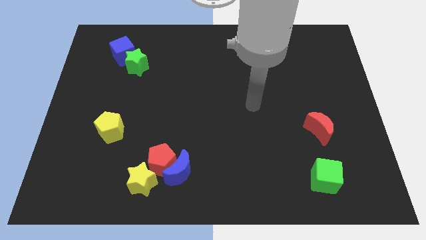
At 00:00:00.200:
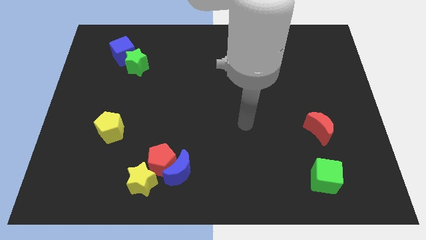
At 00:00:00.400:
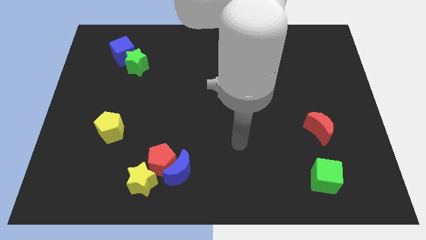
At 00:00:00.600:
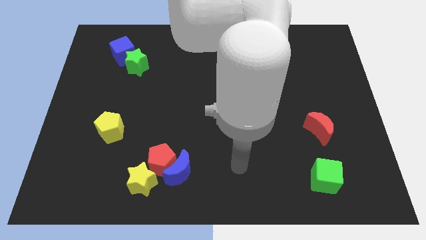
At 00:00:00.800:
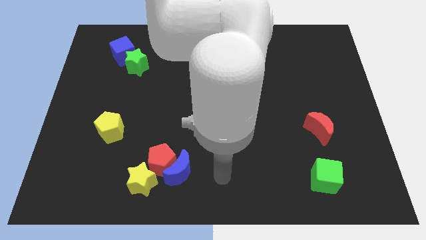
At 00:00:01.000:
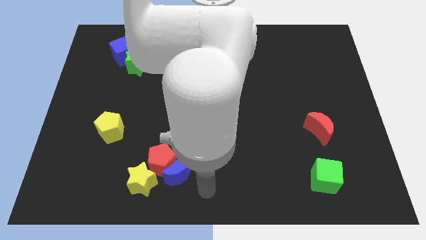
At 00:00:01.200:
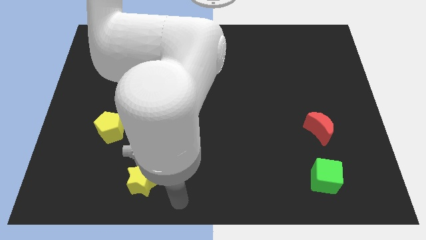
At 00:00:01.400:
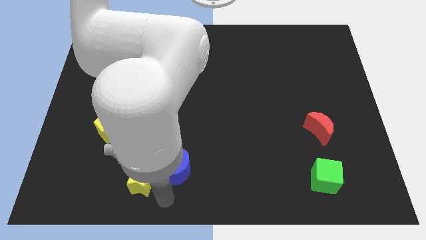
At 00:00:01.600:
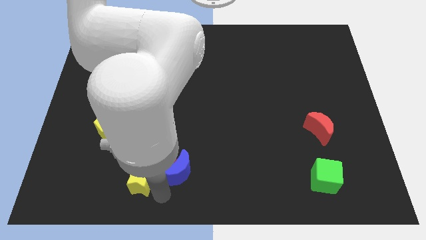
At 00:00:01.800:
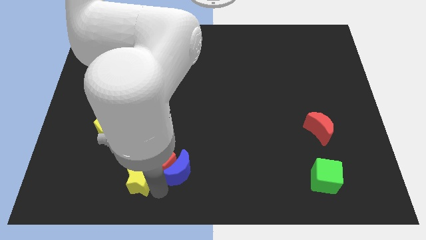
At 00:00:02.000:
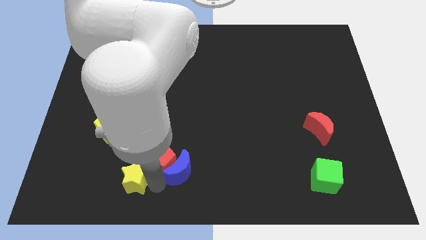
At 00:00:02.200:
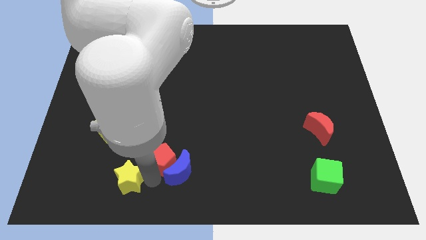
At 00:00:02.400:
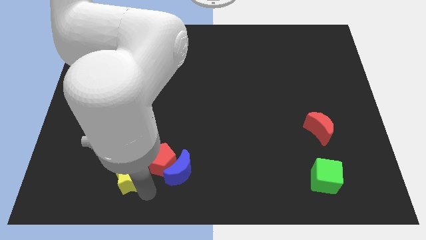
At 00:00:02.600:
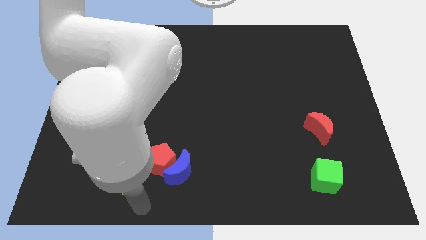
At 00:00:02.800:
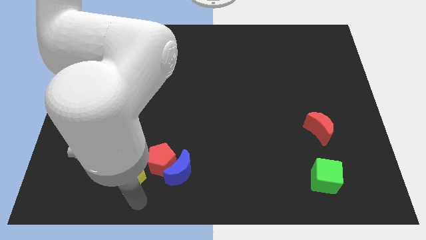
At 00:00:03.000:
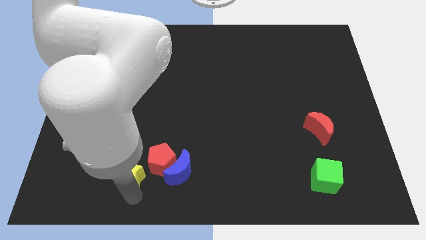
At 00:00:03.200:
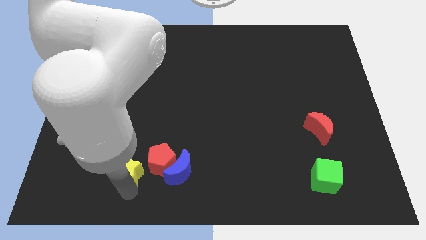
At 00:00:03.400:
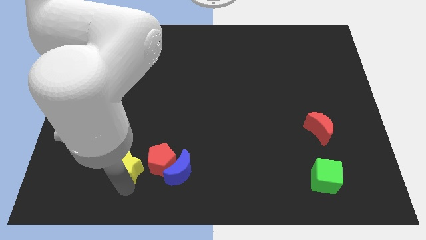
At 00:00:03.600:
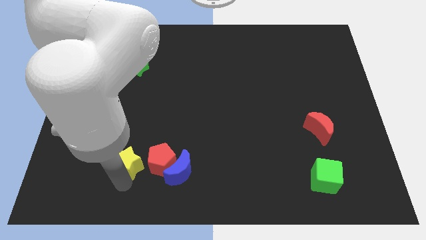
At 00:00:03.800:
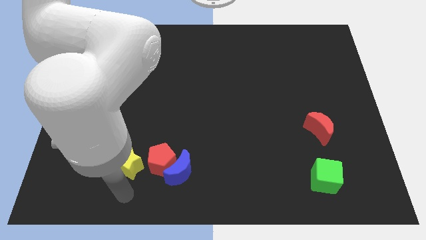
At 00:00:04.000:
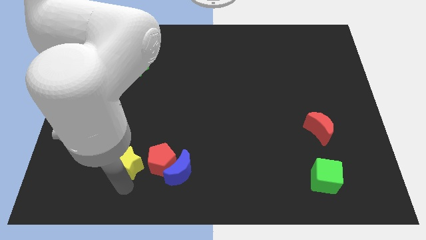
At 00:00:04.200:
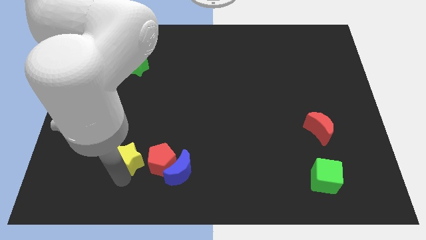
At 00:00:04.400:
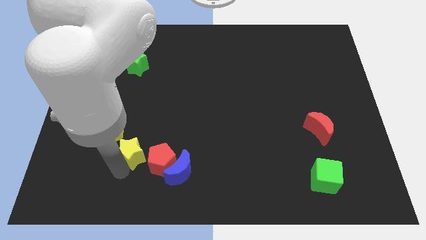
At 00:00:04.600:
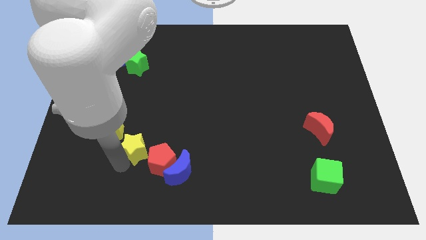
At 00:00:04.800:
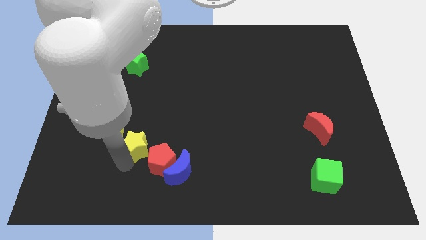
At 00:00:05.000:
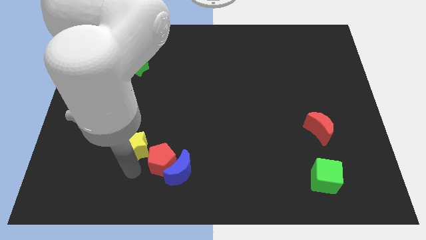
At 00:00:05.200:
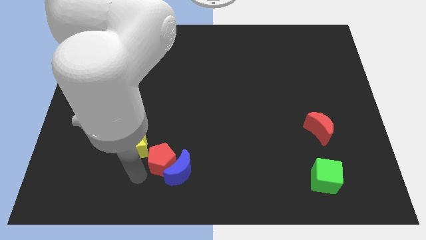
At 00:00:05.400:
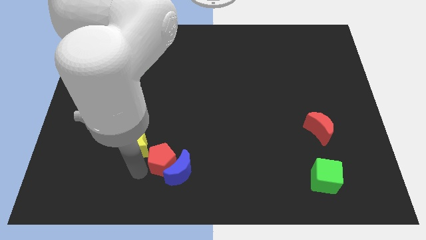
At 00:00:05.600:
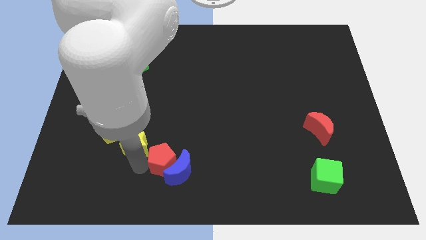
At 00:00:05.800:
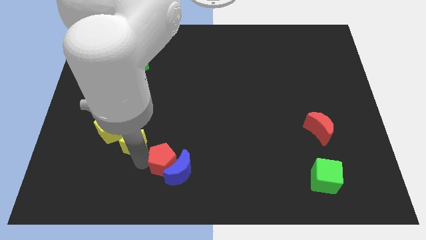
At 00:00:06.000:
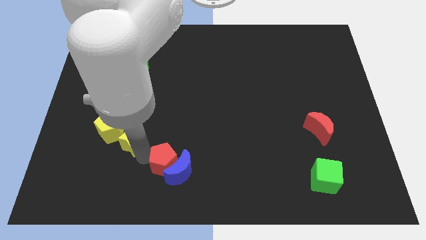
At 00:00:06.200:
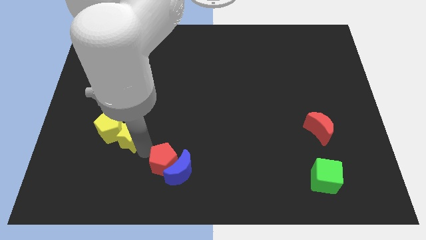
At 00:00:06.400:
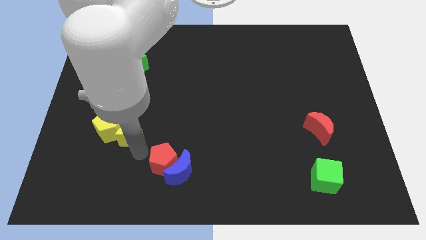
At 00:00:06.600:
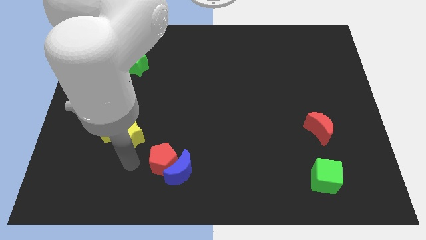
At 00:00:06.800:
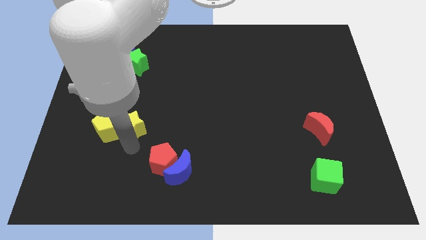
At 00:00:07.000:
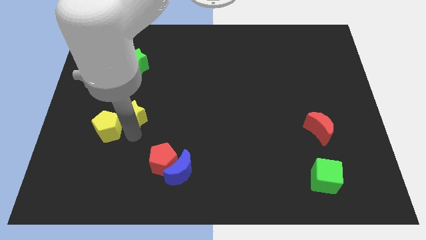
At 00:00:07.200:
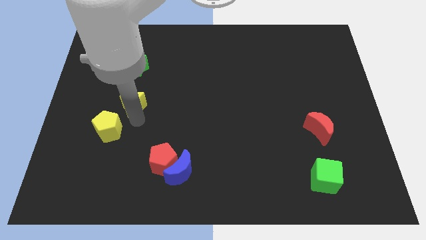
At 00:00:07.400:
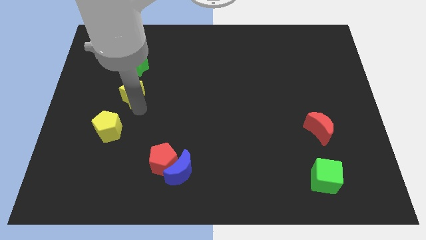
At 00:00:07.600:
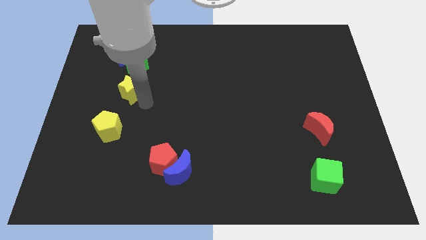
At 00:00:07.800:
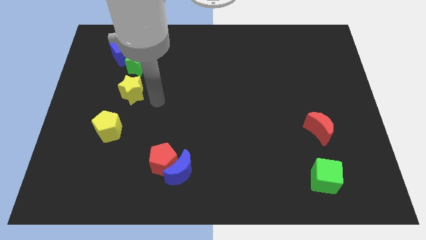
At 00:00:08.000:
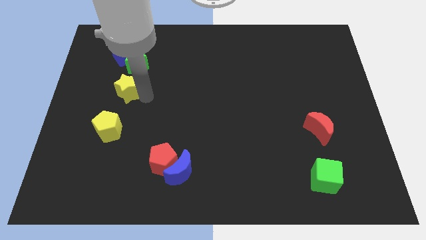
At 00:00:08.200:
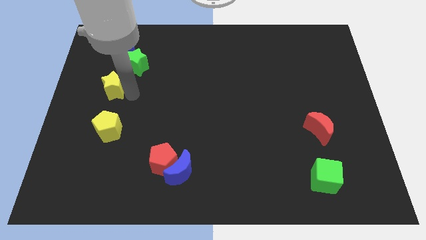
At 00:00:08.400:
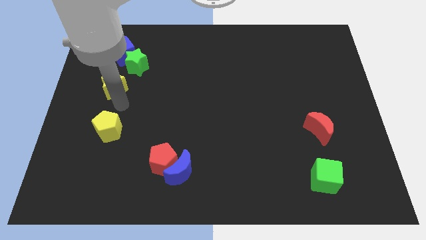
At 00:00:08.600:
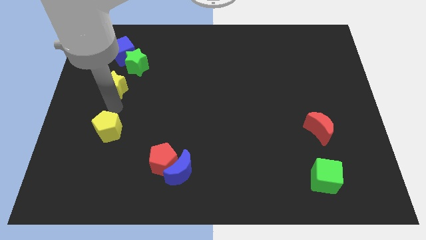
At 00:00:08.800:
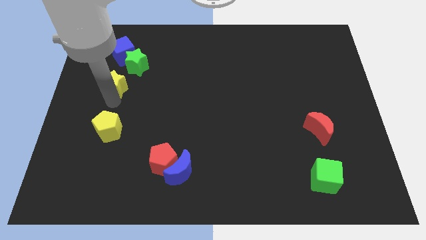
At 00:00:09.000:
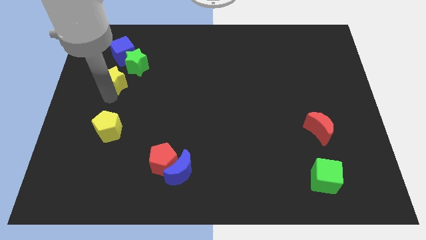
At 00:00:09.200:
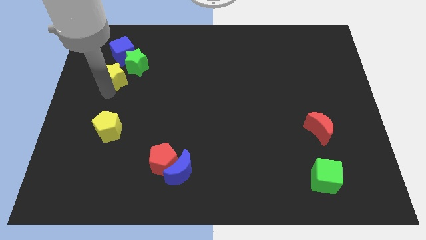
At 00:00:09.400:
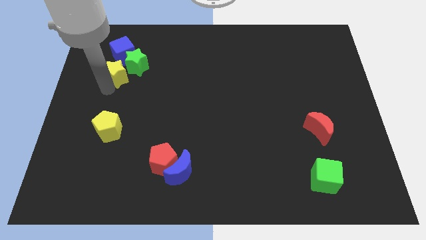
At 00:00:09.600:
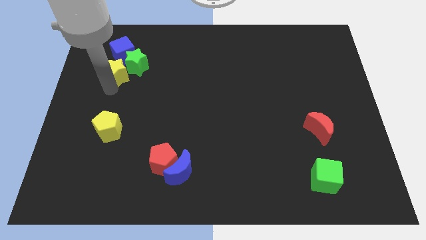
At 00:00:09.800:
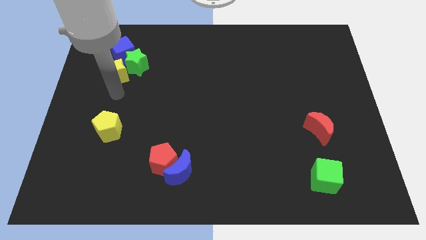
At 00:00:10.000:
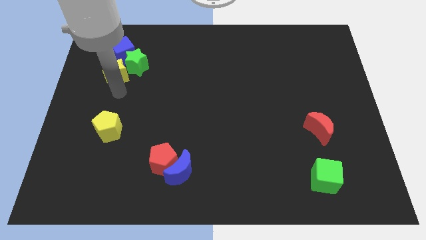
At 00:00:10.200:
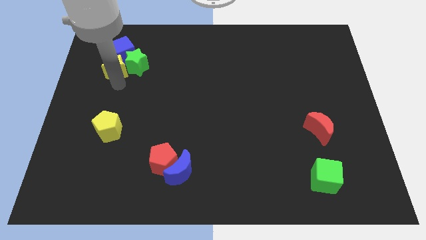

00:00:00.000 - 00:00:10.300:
move the yellow star next to the blue cube

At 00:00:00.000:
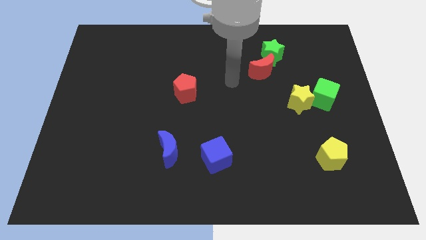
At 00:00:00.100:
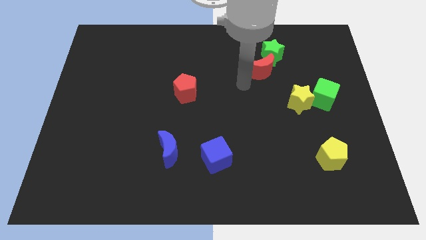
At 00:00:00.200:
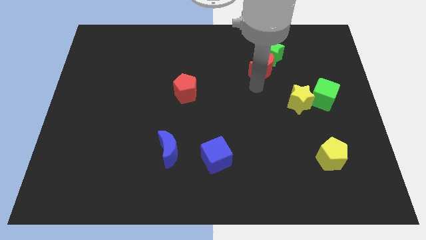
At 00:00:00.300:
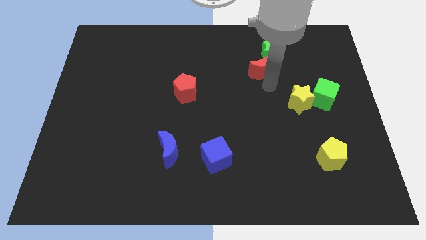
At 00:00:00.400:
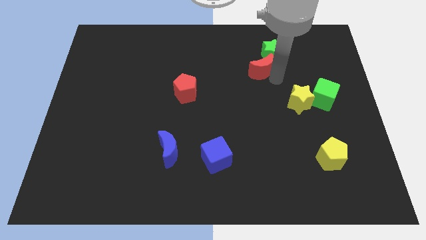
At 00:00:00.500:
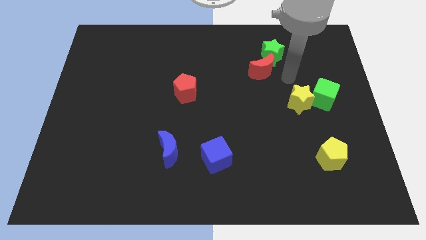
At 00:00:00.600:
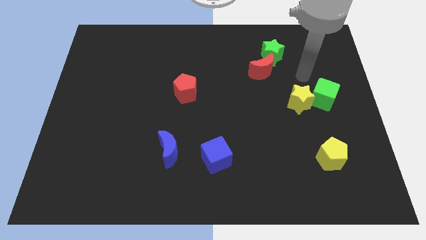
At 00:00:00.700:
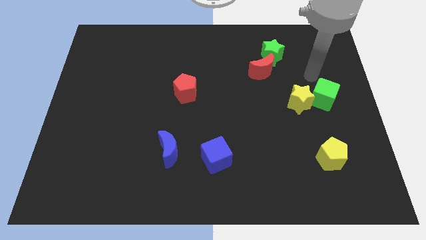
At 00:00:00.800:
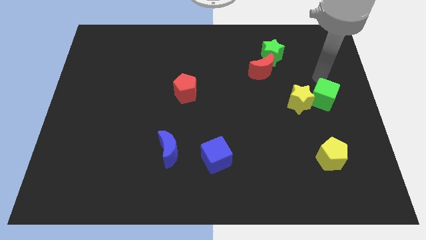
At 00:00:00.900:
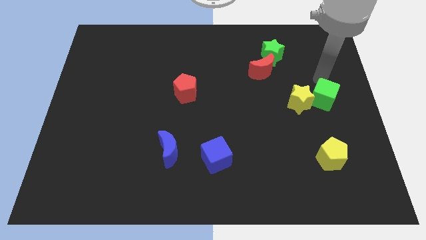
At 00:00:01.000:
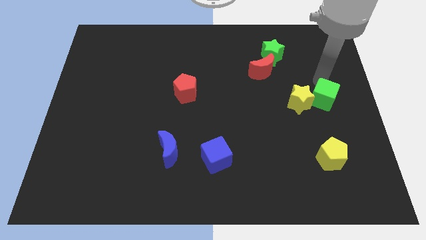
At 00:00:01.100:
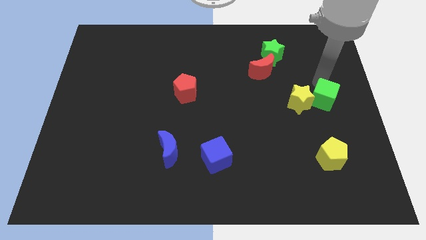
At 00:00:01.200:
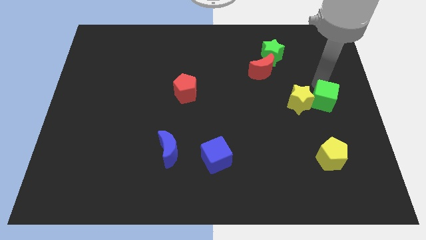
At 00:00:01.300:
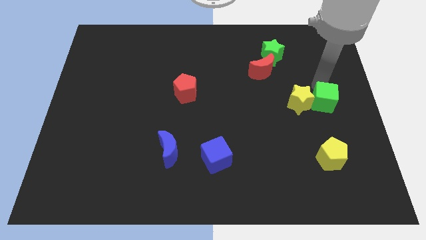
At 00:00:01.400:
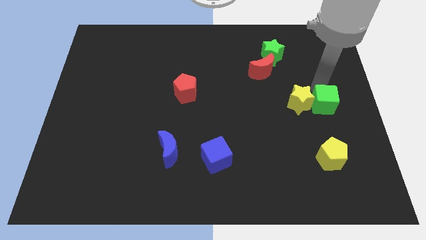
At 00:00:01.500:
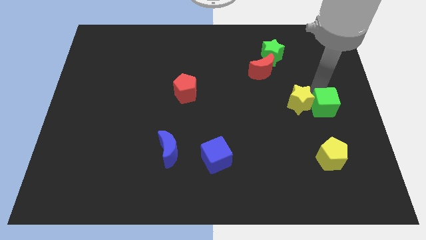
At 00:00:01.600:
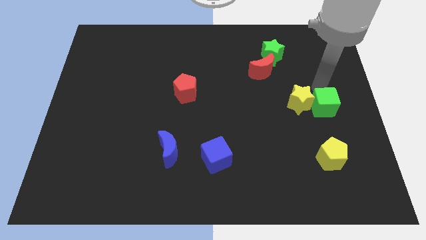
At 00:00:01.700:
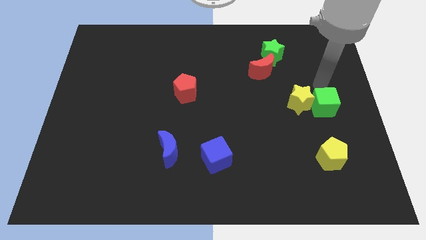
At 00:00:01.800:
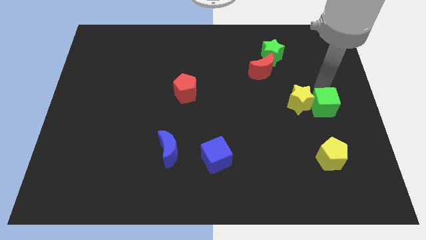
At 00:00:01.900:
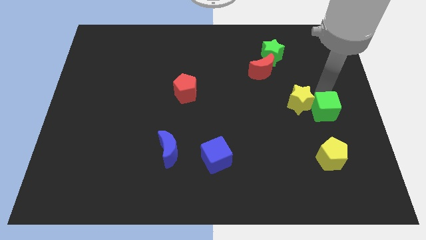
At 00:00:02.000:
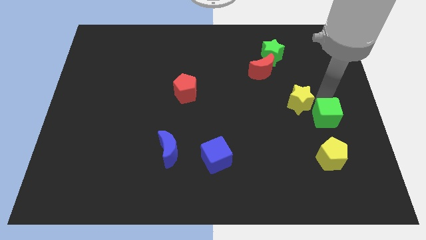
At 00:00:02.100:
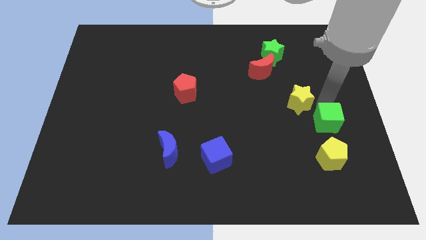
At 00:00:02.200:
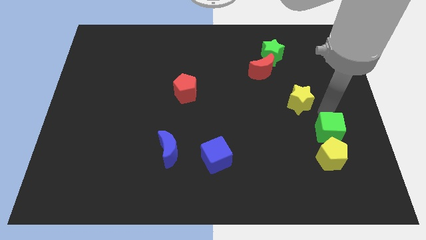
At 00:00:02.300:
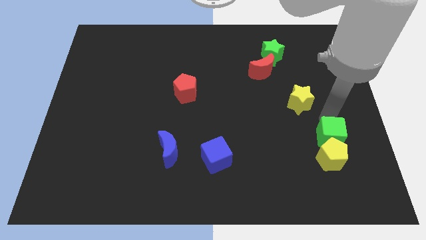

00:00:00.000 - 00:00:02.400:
slide the green cube to the yellow pentagon
